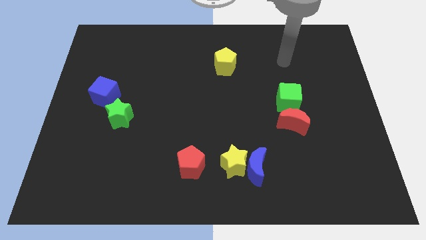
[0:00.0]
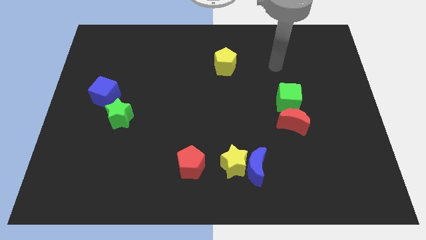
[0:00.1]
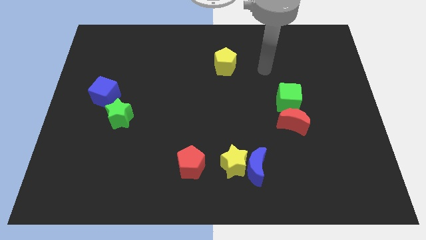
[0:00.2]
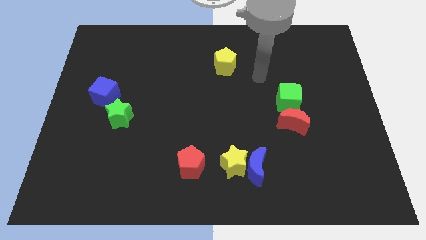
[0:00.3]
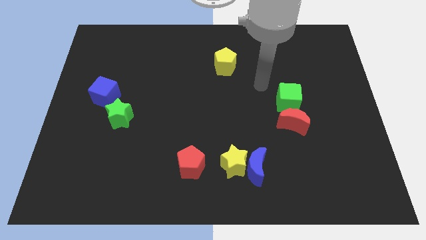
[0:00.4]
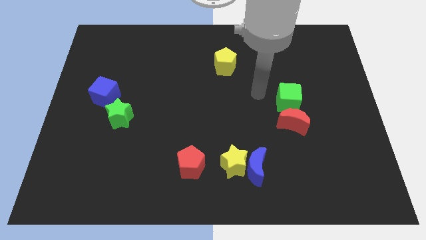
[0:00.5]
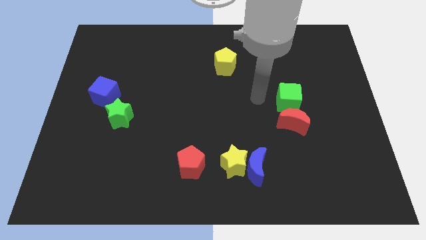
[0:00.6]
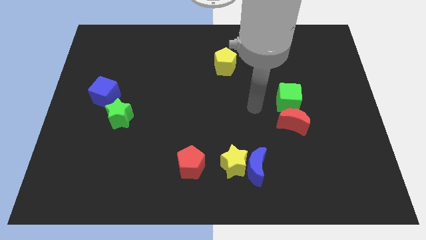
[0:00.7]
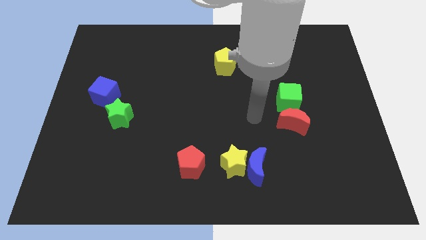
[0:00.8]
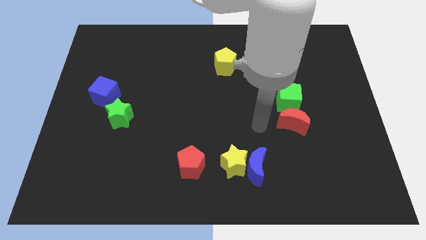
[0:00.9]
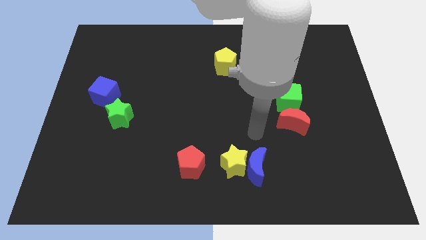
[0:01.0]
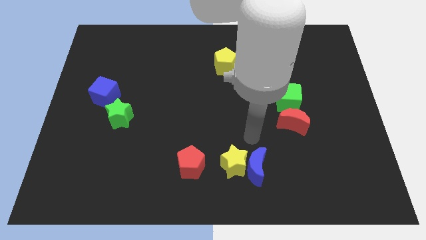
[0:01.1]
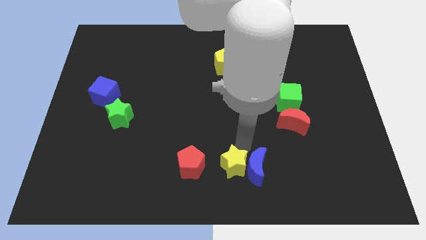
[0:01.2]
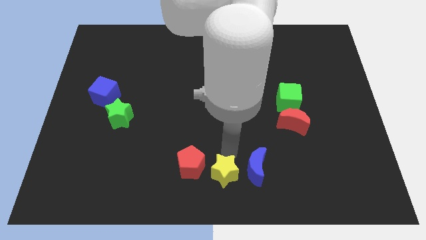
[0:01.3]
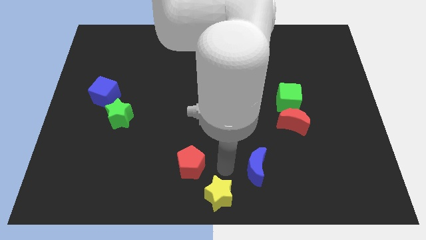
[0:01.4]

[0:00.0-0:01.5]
move the blue moon away from the yellow star

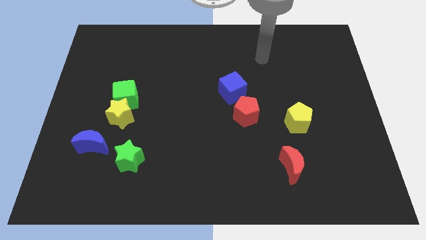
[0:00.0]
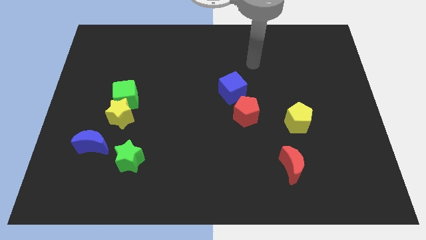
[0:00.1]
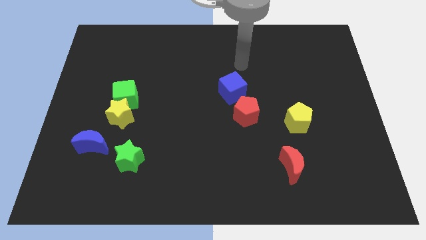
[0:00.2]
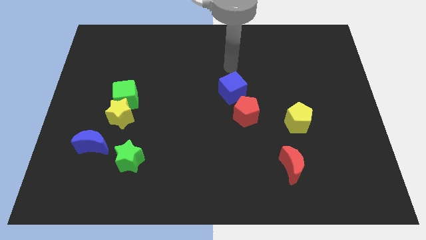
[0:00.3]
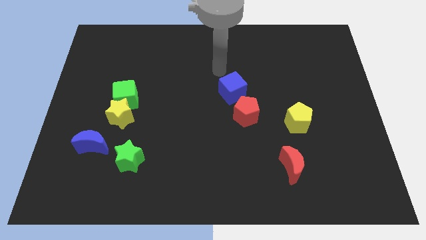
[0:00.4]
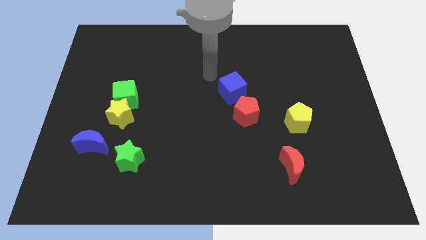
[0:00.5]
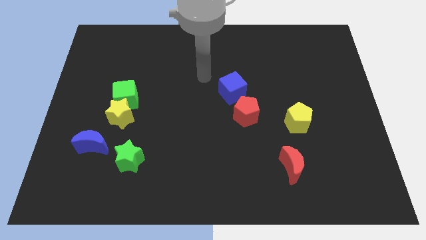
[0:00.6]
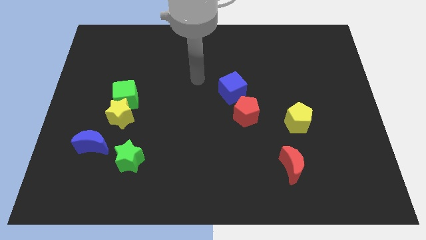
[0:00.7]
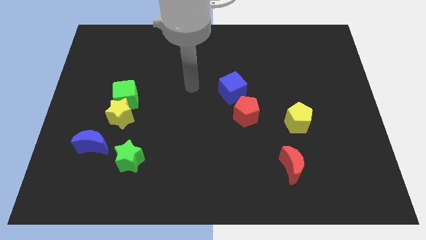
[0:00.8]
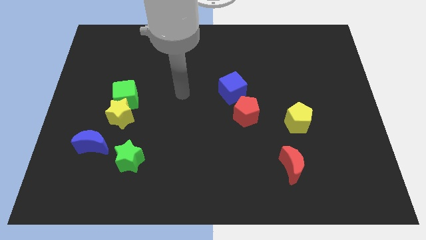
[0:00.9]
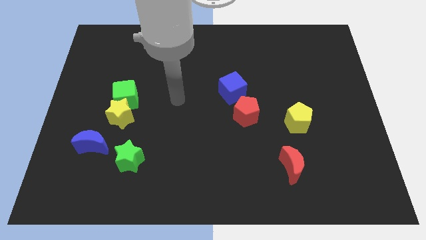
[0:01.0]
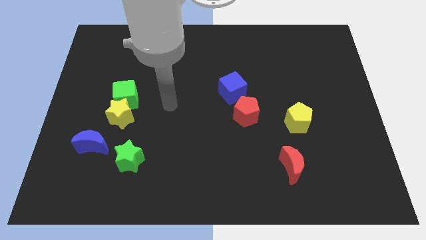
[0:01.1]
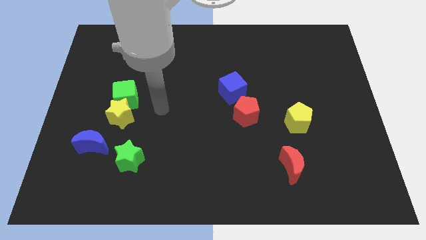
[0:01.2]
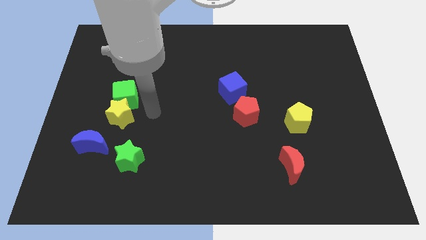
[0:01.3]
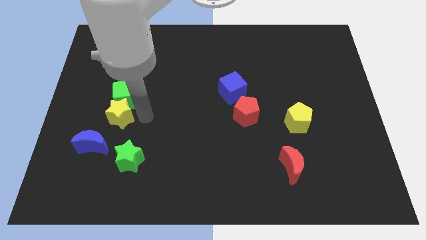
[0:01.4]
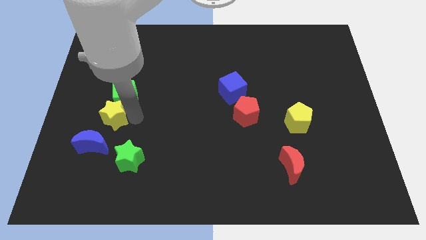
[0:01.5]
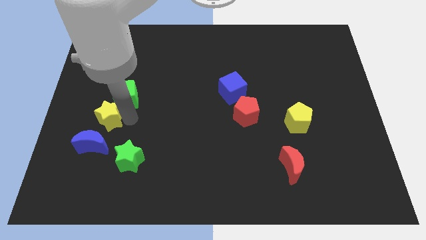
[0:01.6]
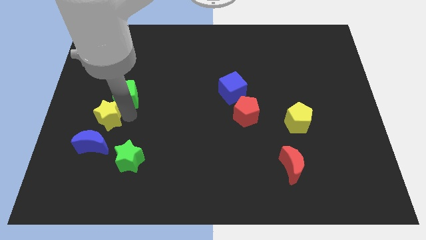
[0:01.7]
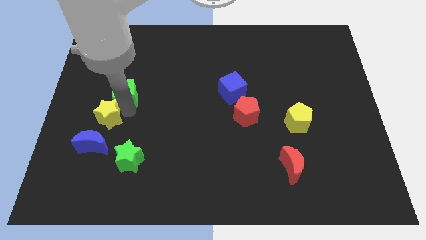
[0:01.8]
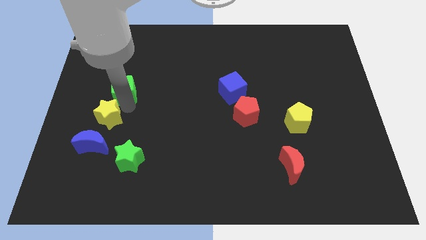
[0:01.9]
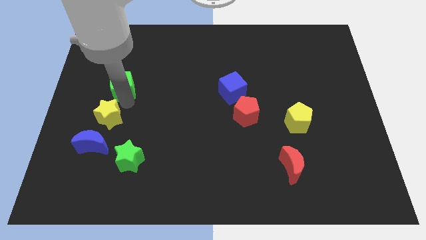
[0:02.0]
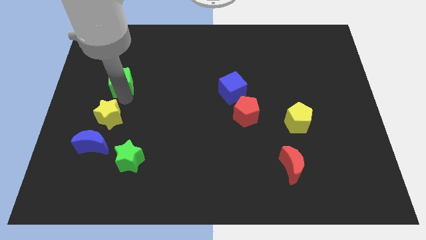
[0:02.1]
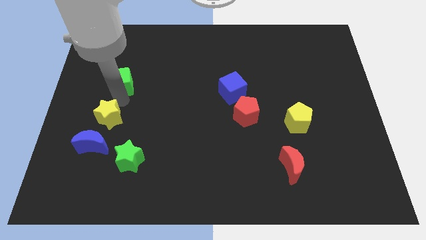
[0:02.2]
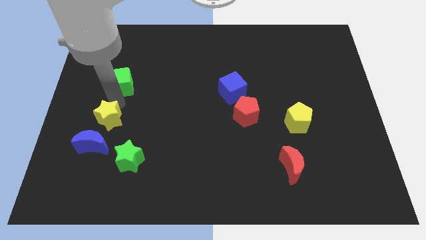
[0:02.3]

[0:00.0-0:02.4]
pull the green cube apart from the yellow star

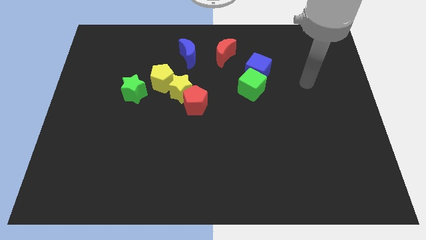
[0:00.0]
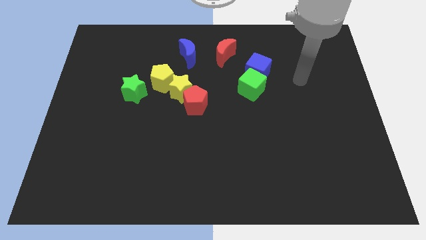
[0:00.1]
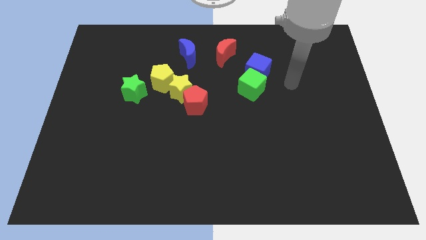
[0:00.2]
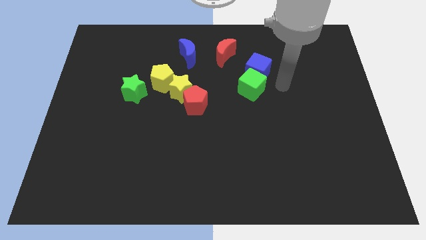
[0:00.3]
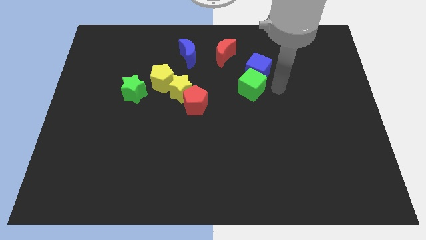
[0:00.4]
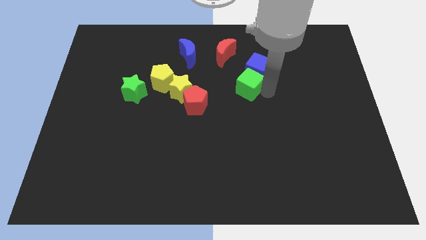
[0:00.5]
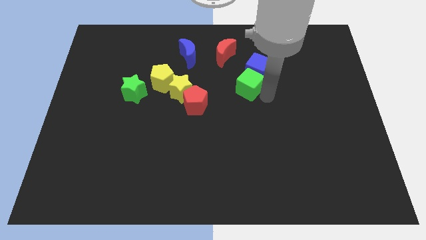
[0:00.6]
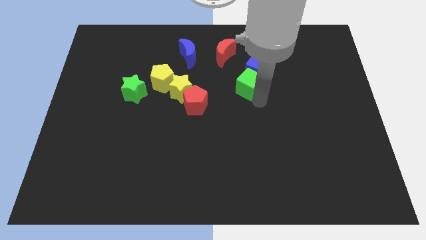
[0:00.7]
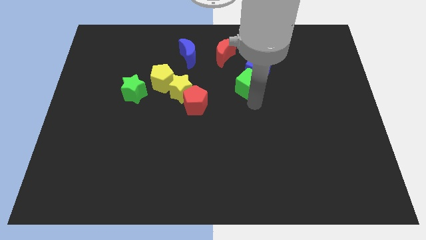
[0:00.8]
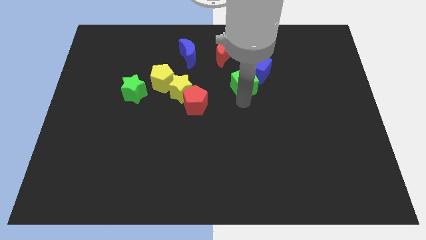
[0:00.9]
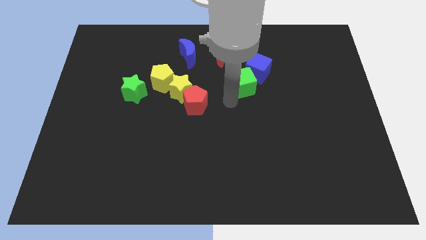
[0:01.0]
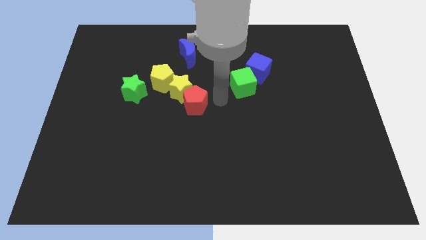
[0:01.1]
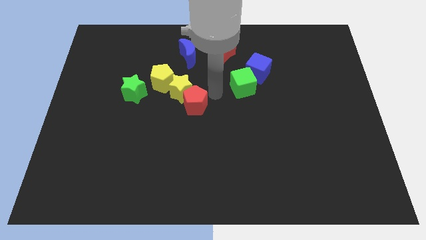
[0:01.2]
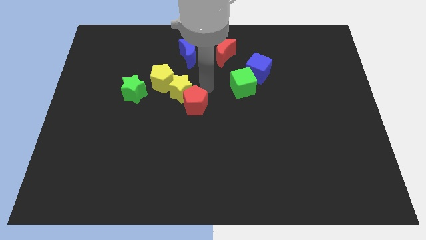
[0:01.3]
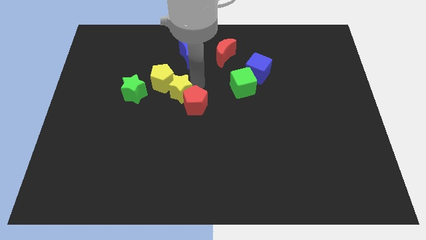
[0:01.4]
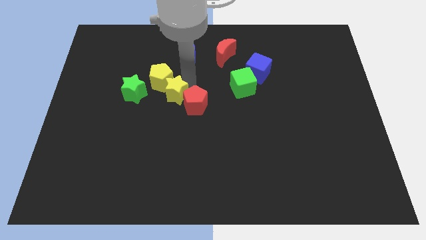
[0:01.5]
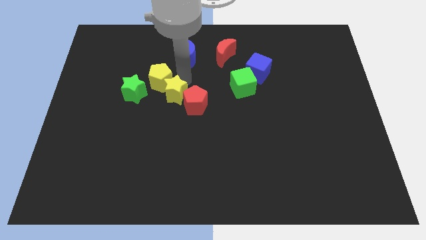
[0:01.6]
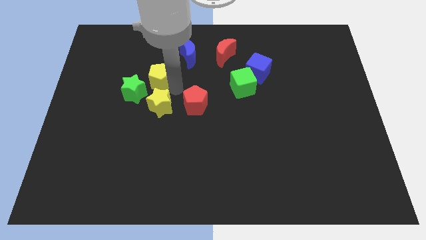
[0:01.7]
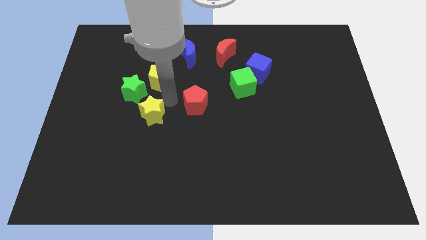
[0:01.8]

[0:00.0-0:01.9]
pull the red pentagon apart from the yellow star

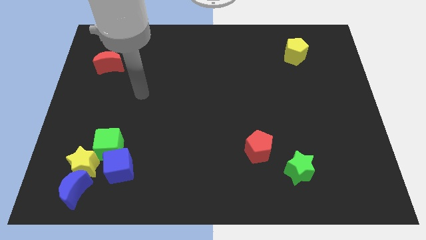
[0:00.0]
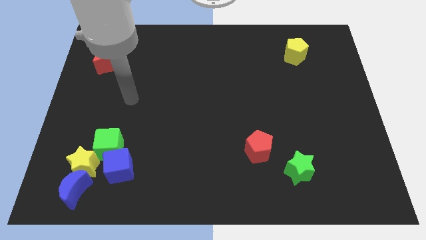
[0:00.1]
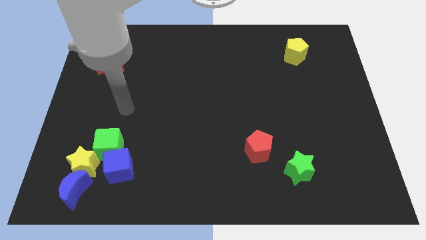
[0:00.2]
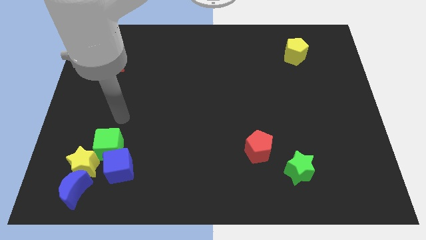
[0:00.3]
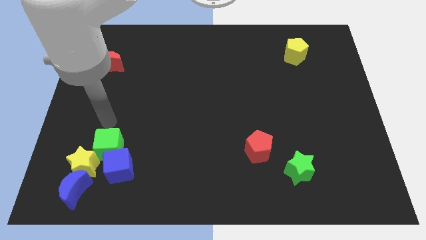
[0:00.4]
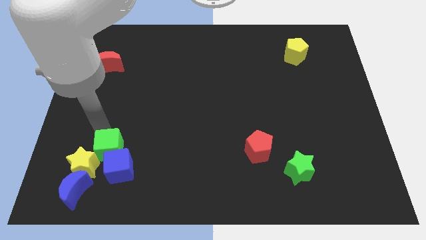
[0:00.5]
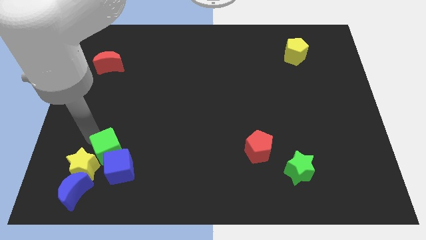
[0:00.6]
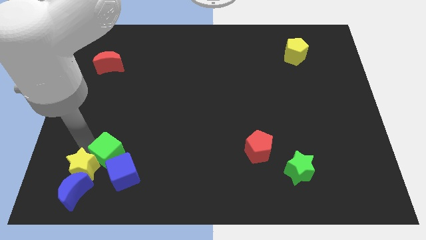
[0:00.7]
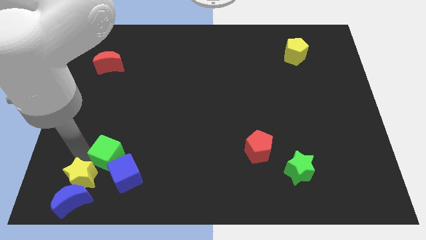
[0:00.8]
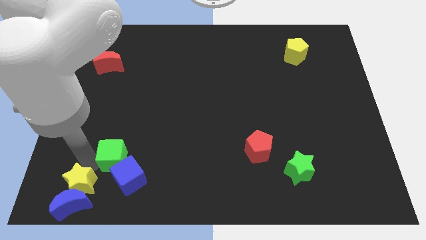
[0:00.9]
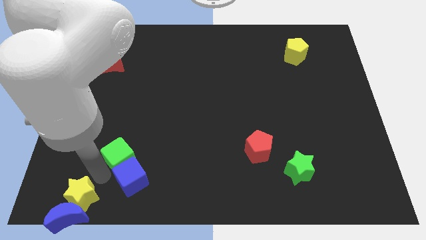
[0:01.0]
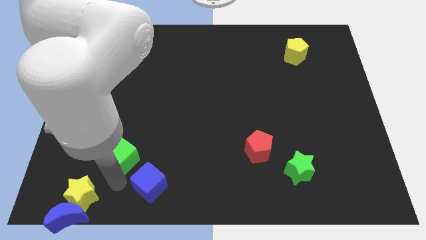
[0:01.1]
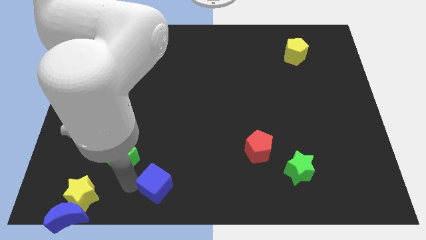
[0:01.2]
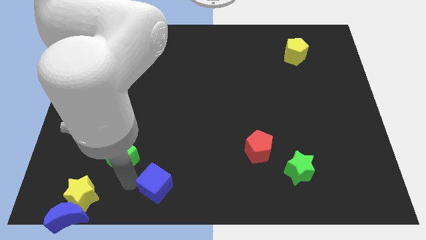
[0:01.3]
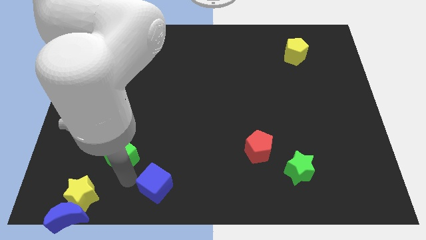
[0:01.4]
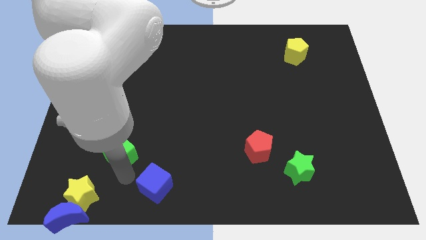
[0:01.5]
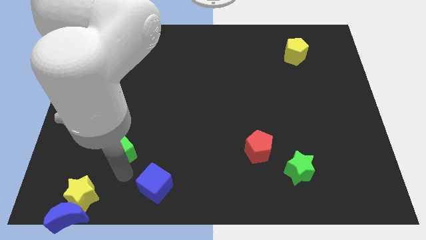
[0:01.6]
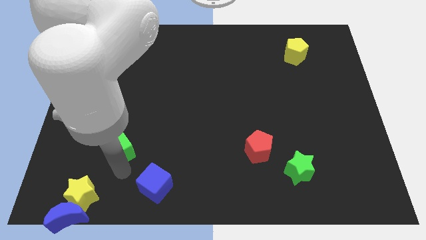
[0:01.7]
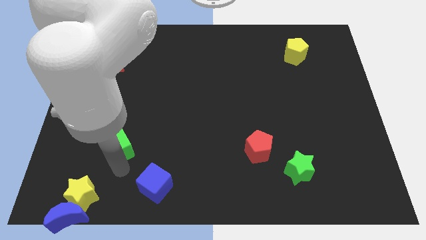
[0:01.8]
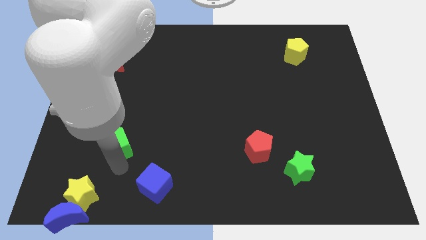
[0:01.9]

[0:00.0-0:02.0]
separate the green cube from the blue cube and yellow star

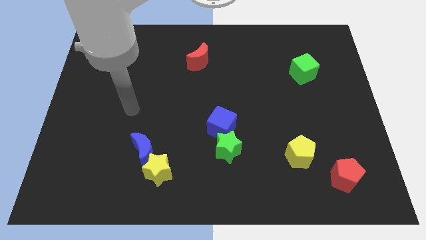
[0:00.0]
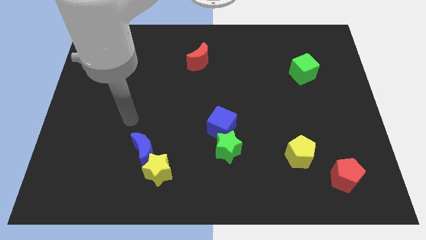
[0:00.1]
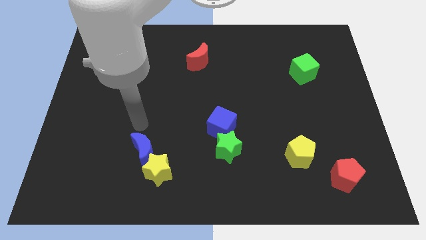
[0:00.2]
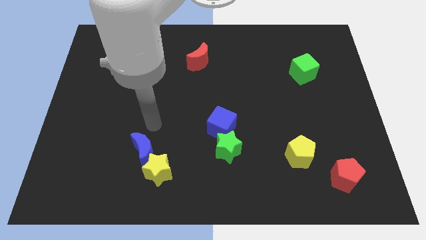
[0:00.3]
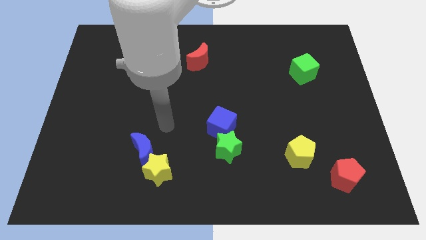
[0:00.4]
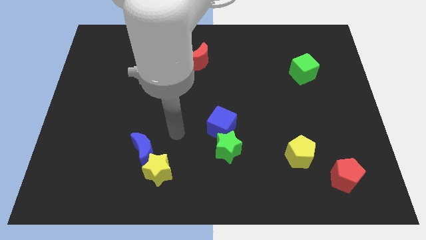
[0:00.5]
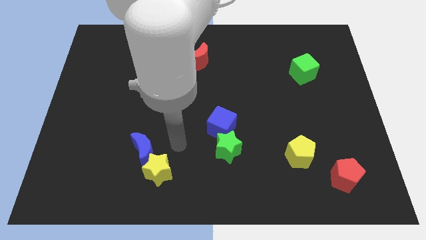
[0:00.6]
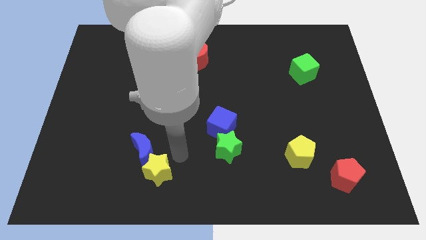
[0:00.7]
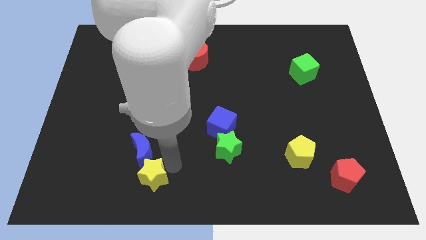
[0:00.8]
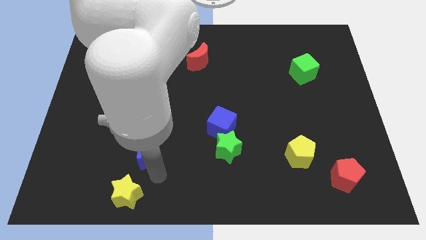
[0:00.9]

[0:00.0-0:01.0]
pull the blue moon apart from the yellow star

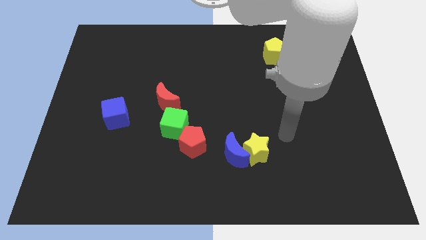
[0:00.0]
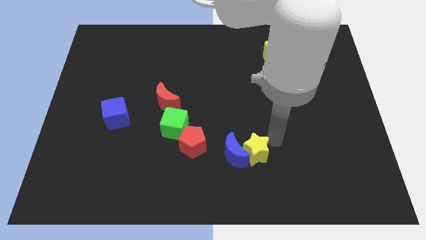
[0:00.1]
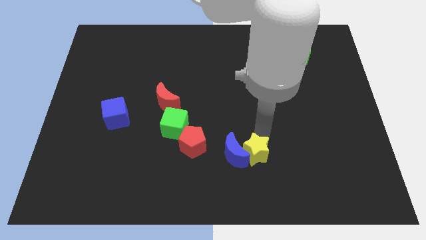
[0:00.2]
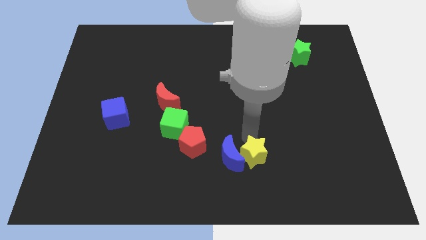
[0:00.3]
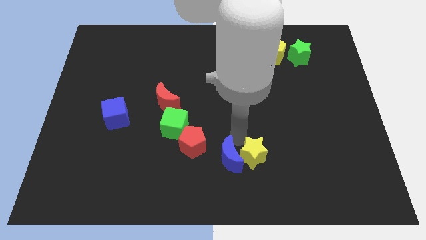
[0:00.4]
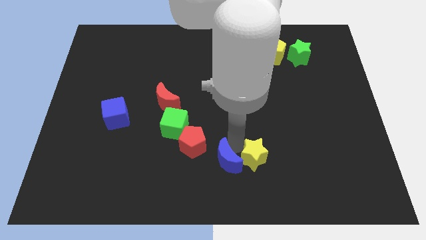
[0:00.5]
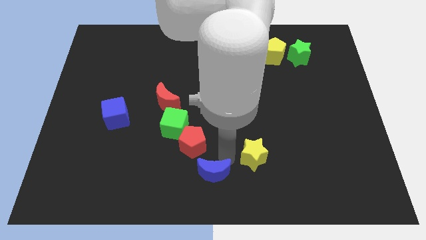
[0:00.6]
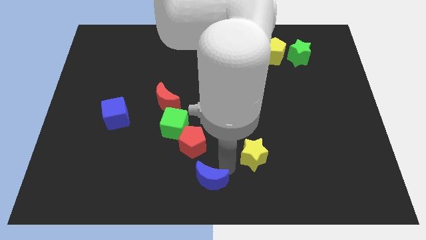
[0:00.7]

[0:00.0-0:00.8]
pull the yellow star apart from the blue moon
